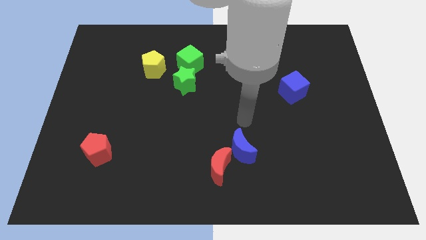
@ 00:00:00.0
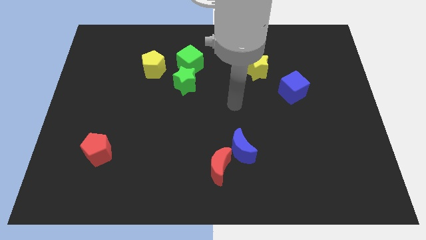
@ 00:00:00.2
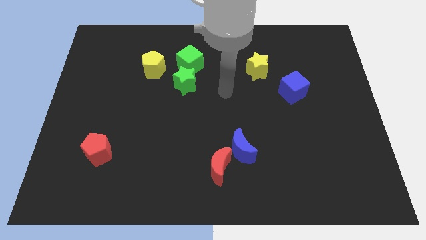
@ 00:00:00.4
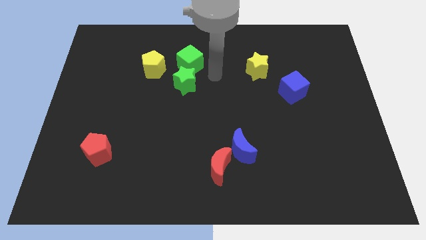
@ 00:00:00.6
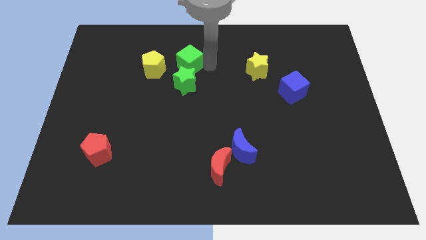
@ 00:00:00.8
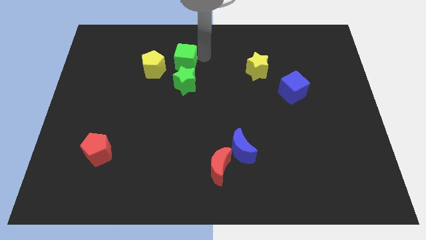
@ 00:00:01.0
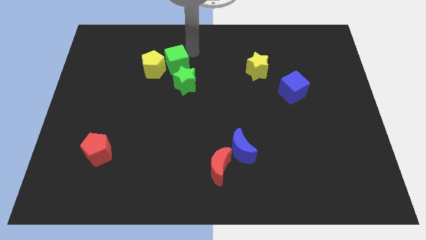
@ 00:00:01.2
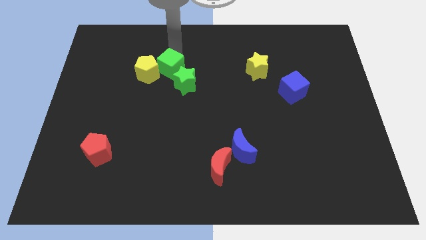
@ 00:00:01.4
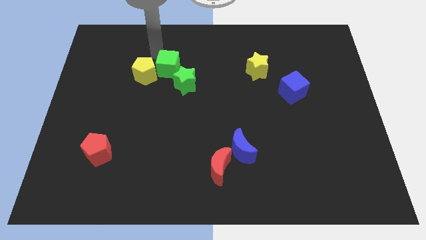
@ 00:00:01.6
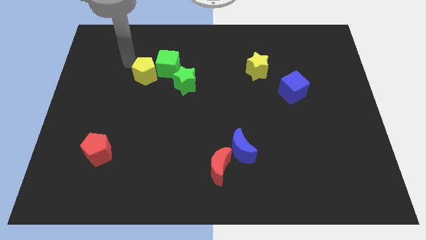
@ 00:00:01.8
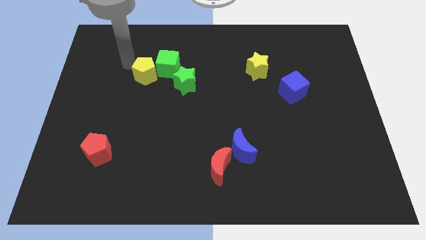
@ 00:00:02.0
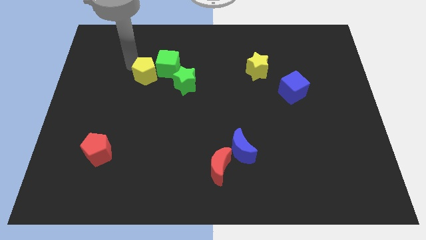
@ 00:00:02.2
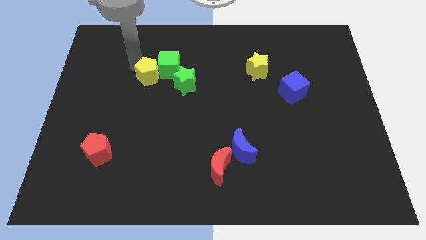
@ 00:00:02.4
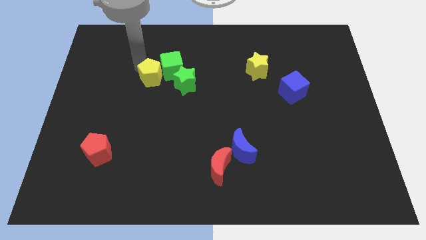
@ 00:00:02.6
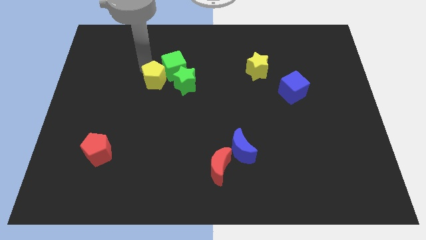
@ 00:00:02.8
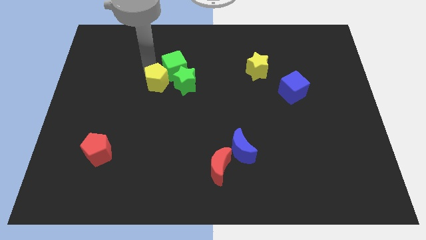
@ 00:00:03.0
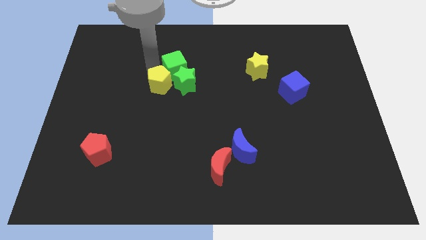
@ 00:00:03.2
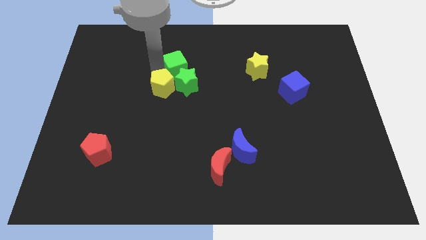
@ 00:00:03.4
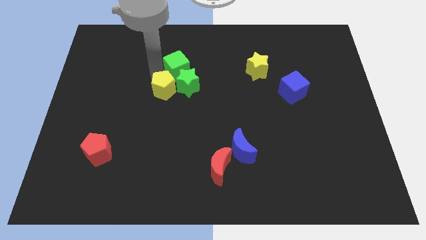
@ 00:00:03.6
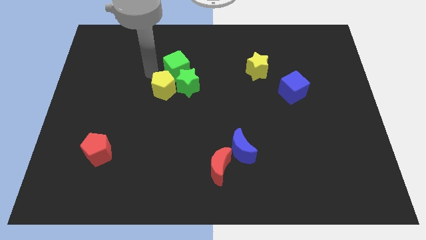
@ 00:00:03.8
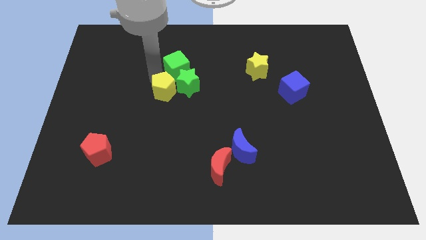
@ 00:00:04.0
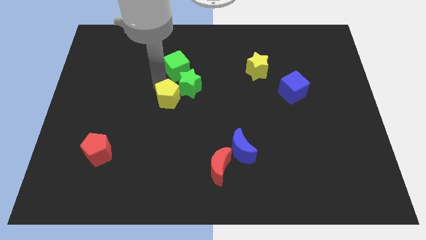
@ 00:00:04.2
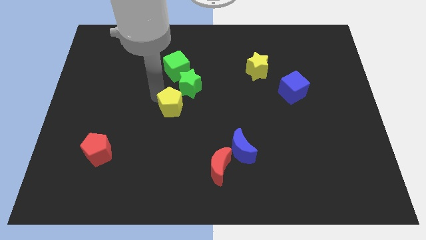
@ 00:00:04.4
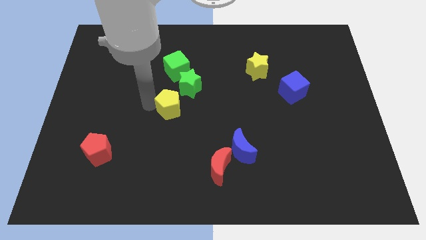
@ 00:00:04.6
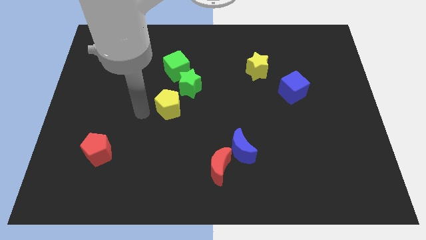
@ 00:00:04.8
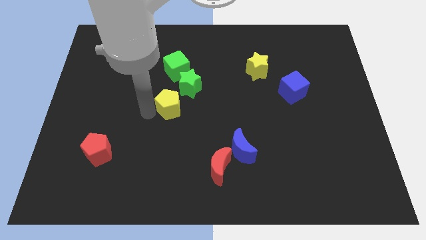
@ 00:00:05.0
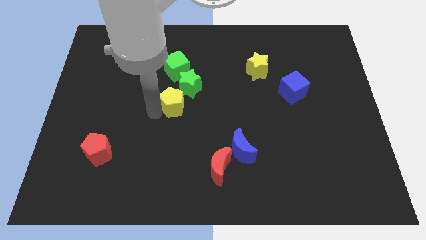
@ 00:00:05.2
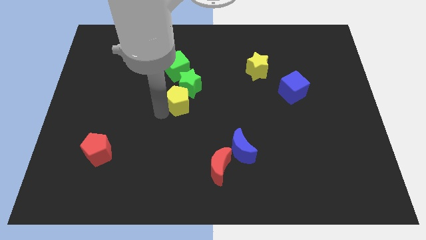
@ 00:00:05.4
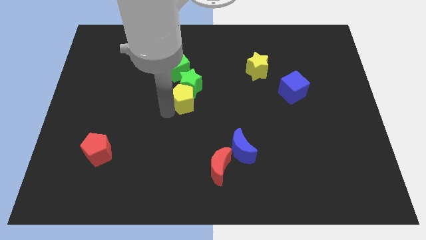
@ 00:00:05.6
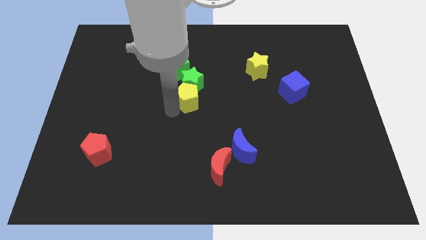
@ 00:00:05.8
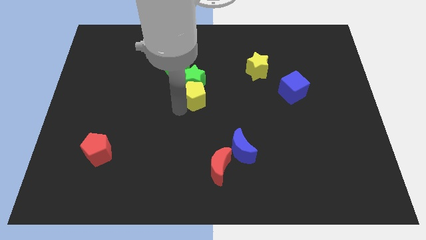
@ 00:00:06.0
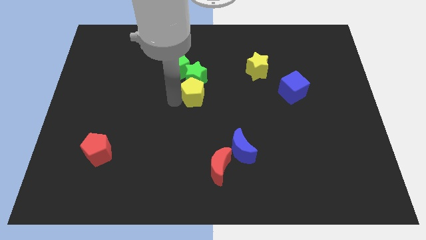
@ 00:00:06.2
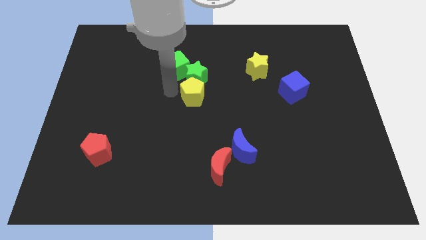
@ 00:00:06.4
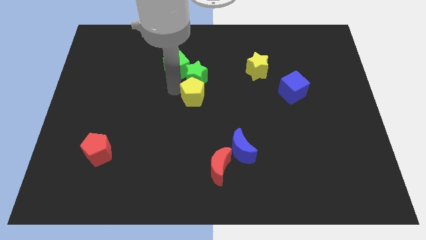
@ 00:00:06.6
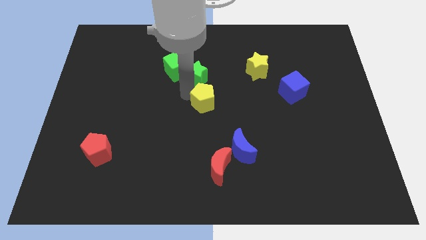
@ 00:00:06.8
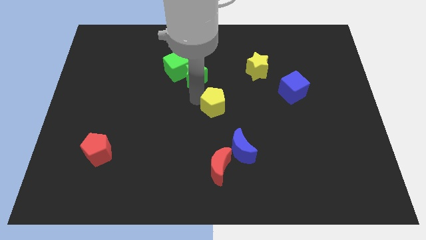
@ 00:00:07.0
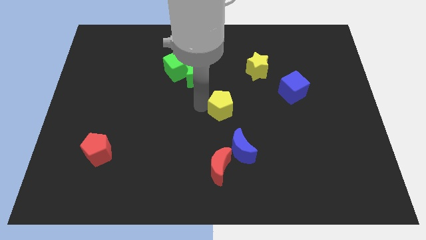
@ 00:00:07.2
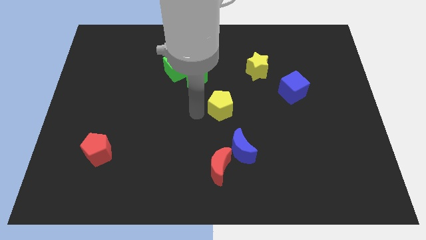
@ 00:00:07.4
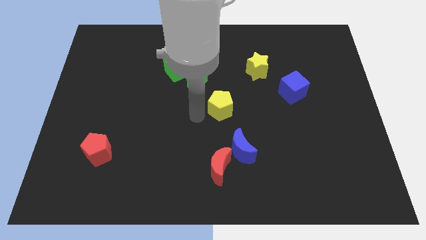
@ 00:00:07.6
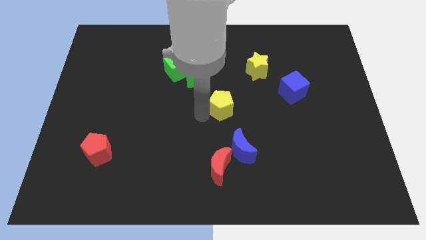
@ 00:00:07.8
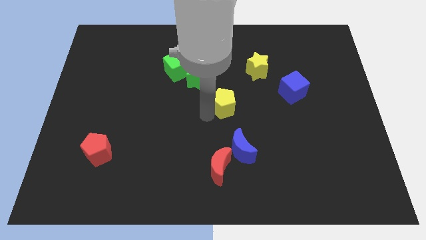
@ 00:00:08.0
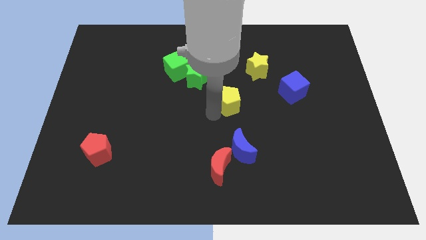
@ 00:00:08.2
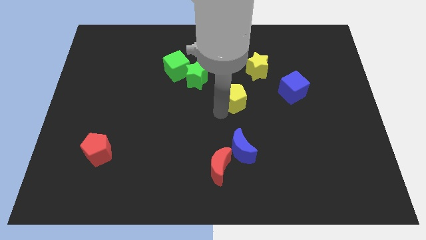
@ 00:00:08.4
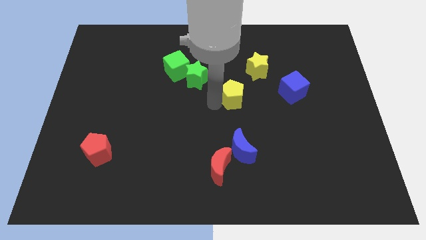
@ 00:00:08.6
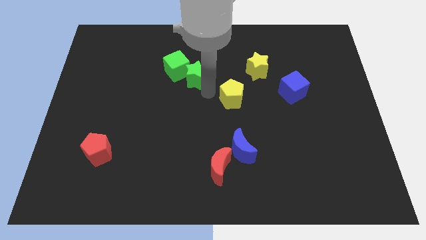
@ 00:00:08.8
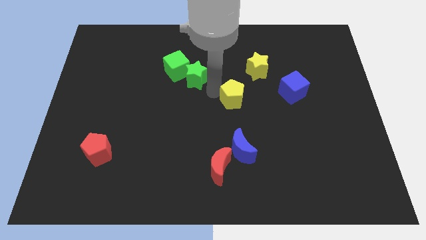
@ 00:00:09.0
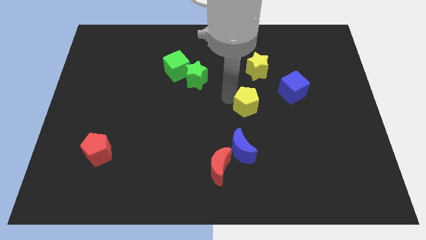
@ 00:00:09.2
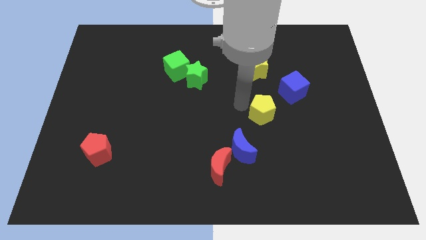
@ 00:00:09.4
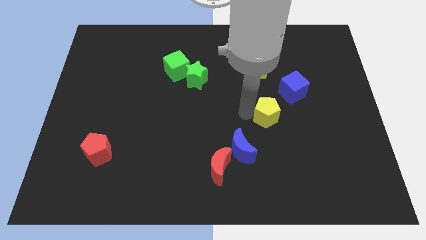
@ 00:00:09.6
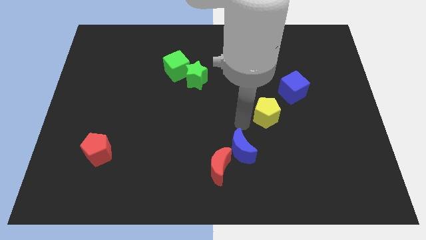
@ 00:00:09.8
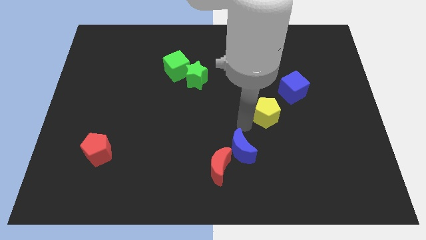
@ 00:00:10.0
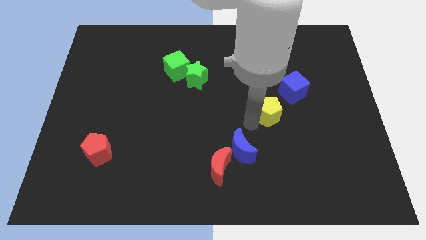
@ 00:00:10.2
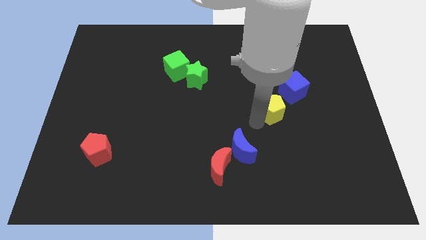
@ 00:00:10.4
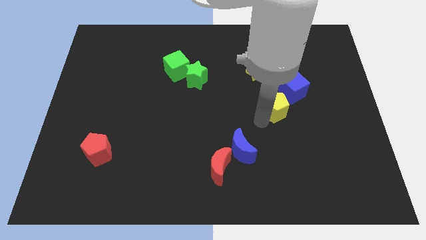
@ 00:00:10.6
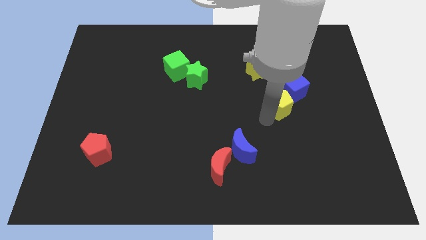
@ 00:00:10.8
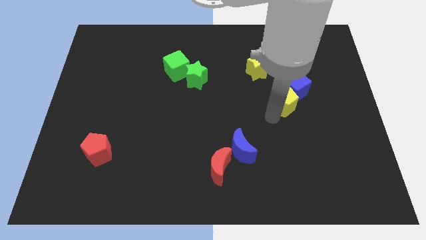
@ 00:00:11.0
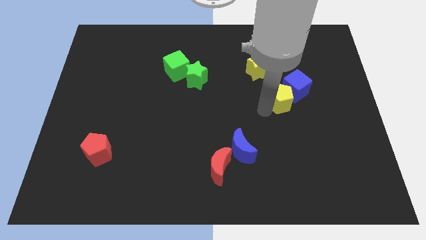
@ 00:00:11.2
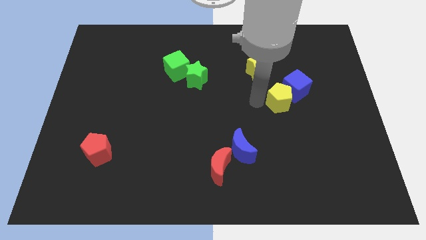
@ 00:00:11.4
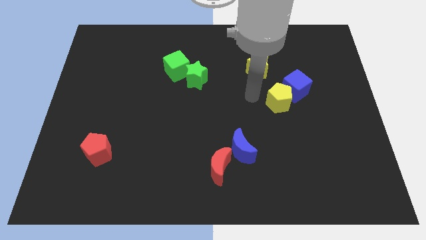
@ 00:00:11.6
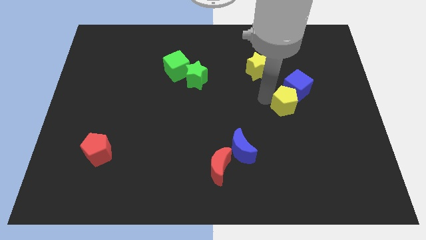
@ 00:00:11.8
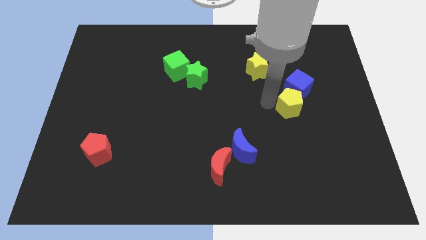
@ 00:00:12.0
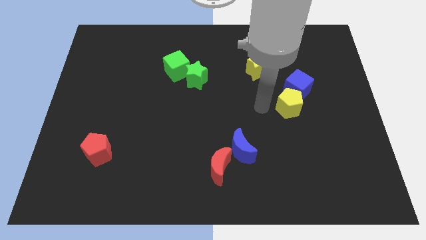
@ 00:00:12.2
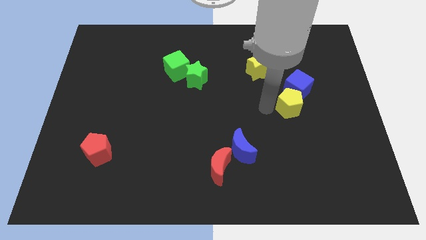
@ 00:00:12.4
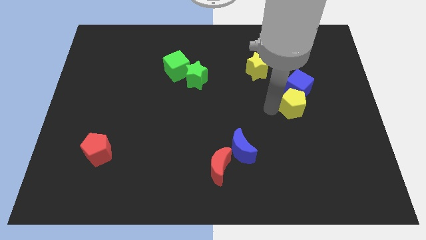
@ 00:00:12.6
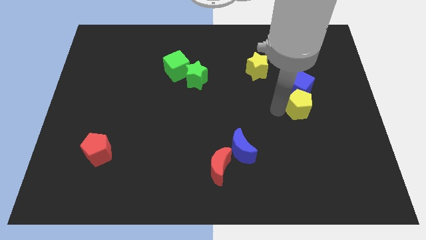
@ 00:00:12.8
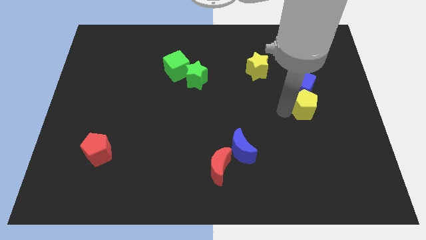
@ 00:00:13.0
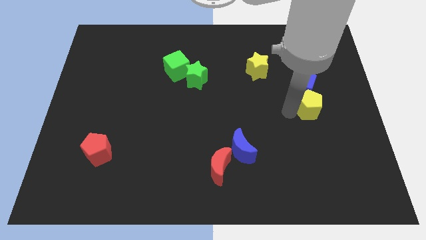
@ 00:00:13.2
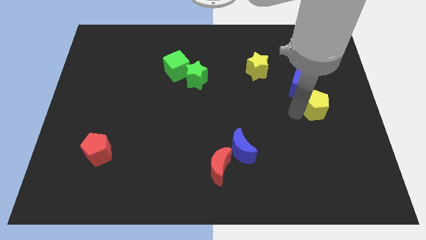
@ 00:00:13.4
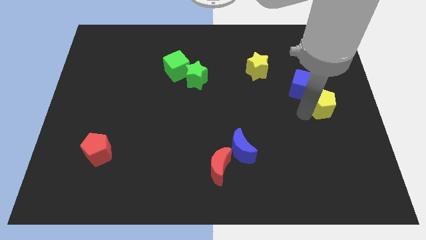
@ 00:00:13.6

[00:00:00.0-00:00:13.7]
slide the yellow pentagon to the right side
